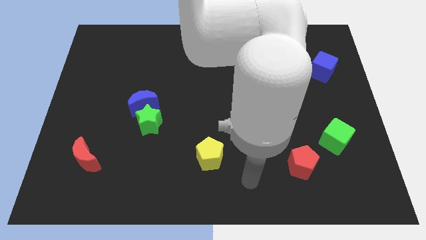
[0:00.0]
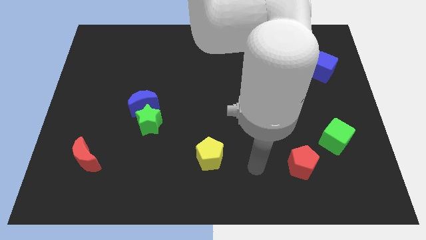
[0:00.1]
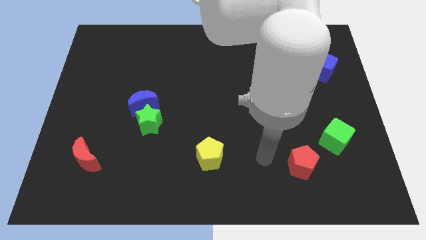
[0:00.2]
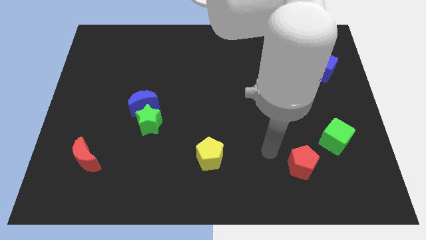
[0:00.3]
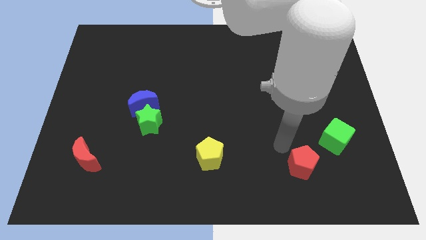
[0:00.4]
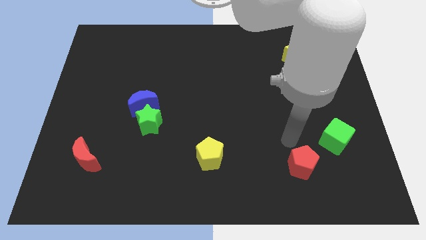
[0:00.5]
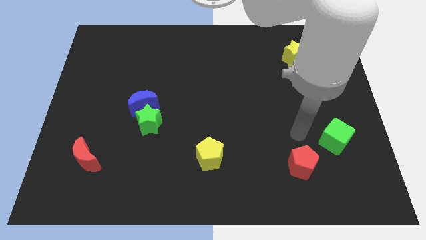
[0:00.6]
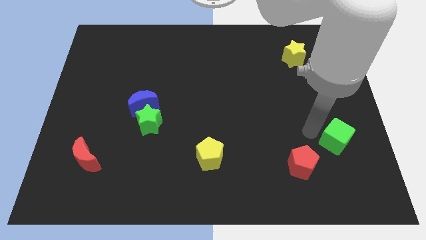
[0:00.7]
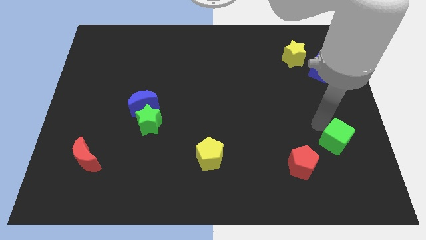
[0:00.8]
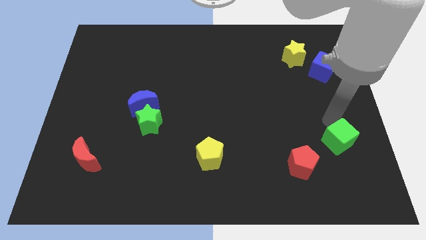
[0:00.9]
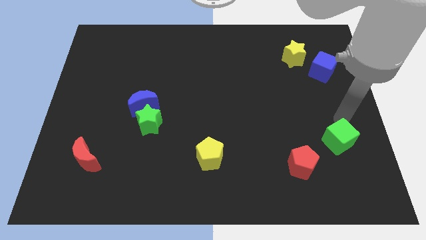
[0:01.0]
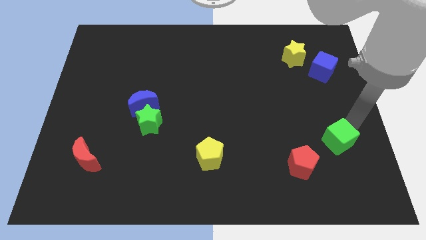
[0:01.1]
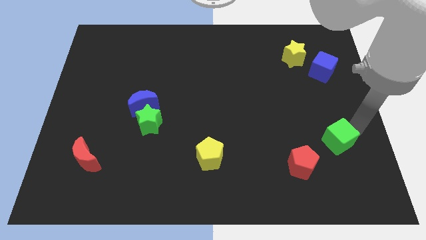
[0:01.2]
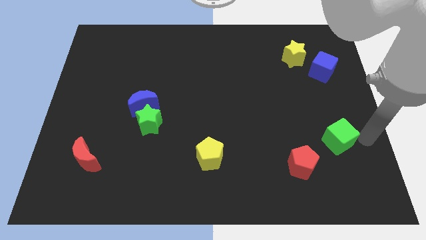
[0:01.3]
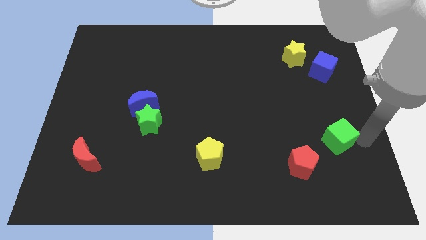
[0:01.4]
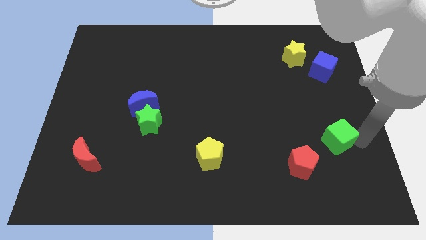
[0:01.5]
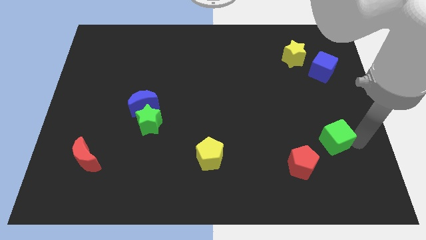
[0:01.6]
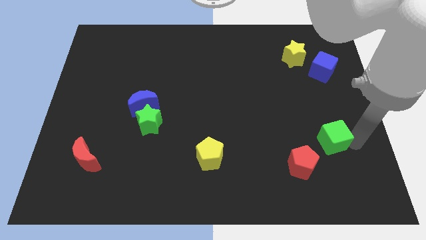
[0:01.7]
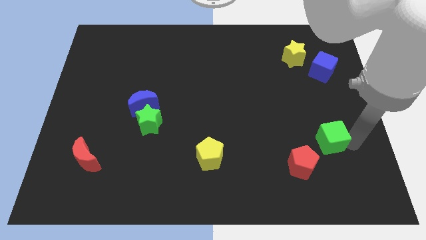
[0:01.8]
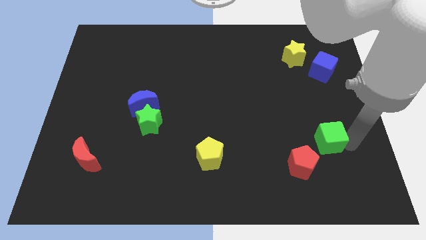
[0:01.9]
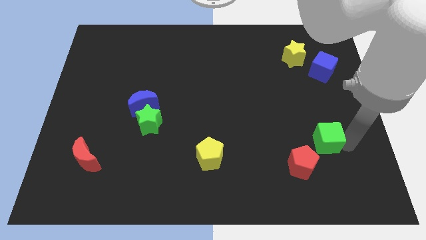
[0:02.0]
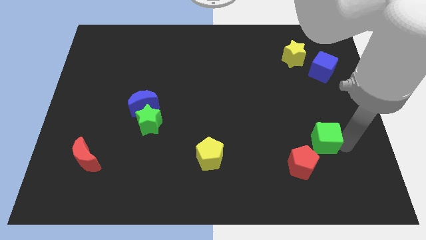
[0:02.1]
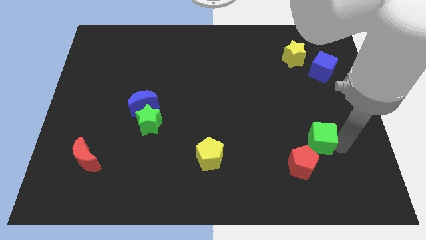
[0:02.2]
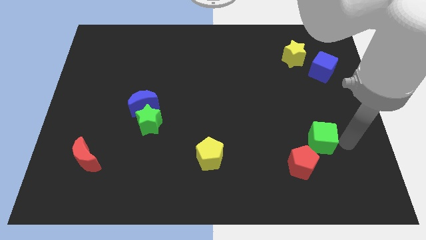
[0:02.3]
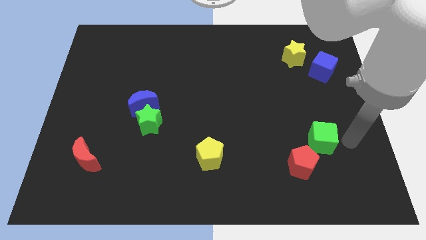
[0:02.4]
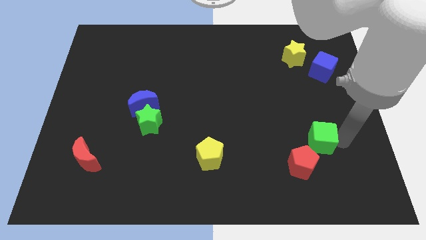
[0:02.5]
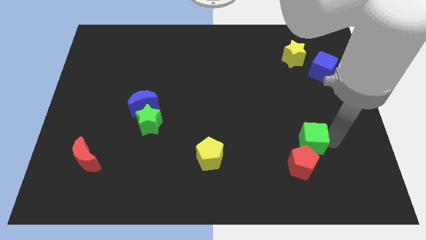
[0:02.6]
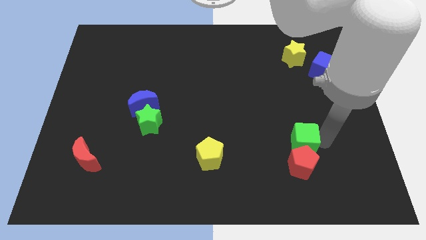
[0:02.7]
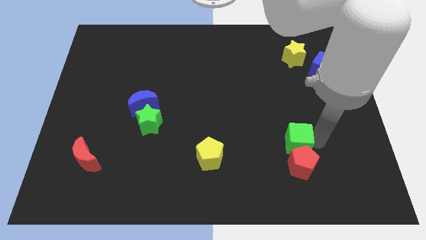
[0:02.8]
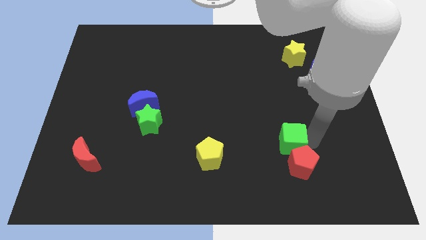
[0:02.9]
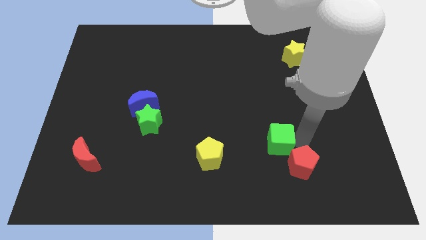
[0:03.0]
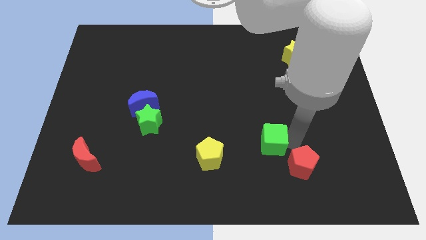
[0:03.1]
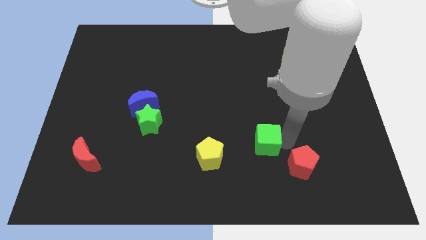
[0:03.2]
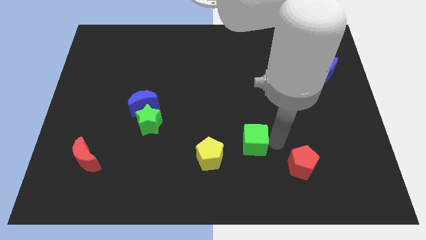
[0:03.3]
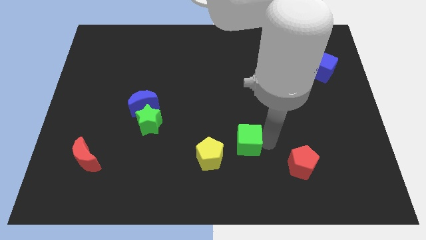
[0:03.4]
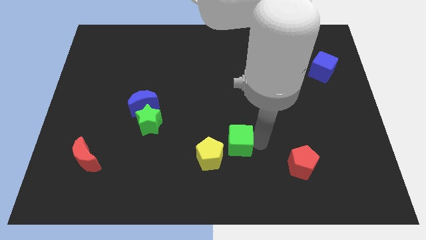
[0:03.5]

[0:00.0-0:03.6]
push the green cube to the left

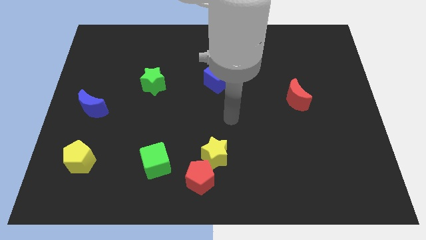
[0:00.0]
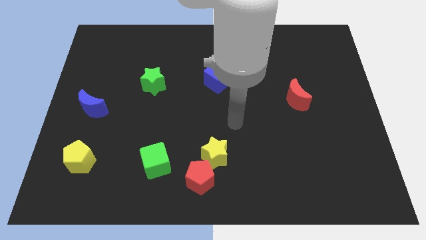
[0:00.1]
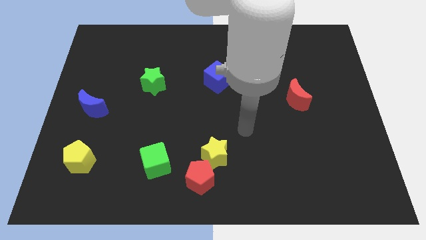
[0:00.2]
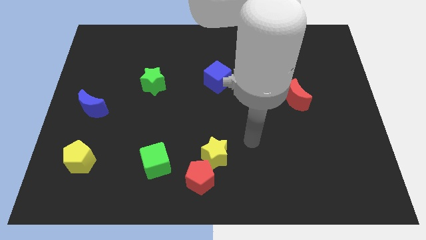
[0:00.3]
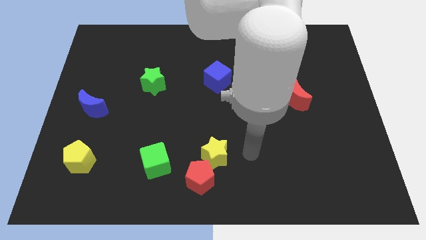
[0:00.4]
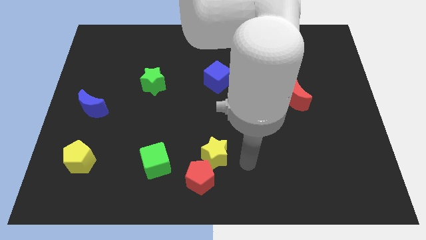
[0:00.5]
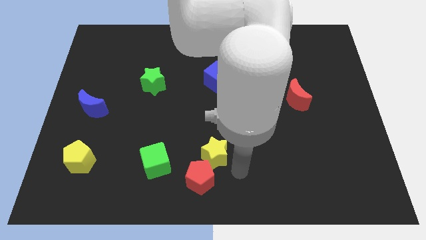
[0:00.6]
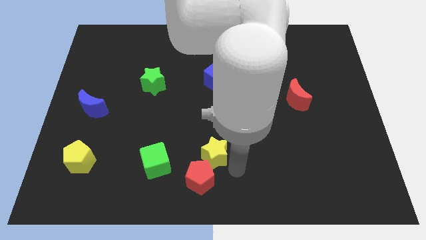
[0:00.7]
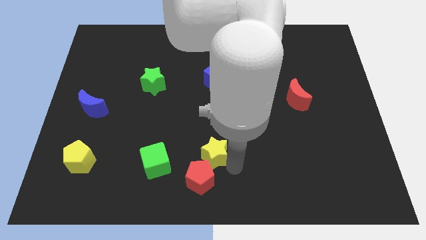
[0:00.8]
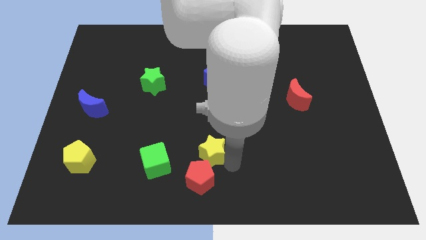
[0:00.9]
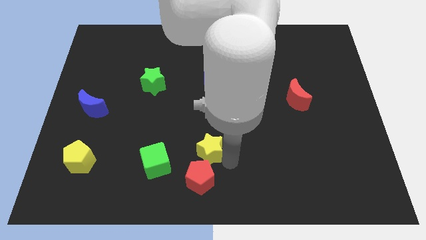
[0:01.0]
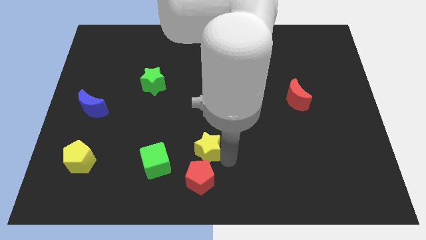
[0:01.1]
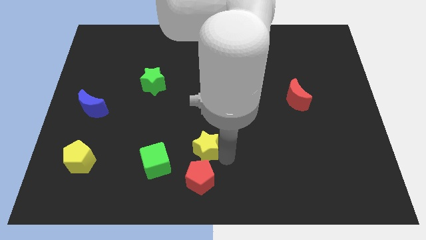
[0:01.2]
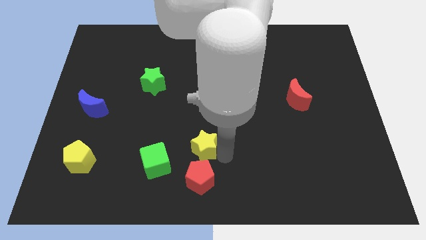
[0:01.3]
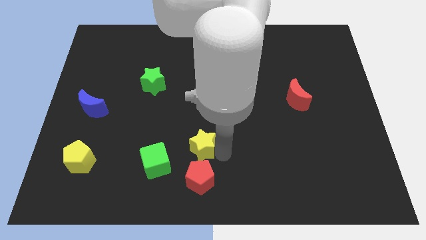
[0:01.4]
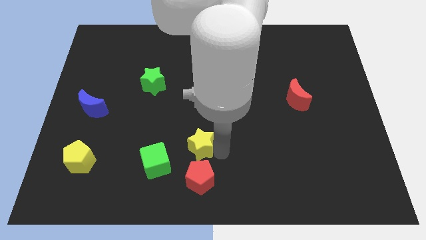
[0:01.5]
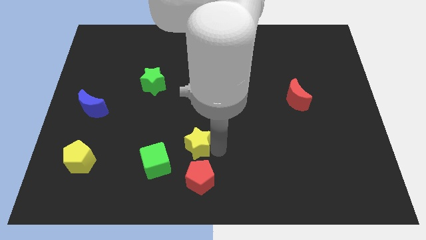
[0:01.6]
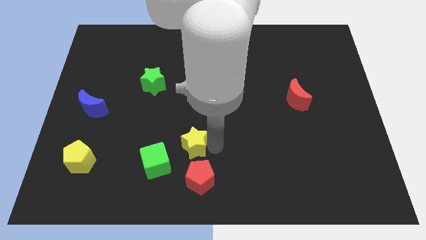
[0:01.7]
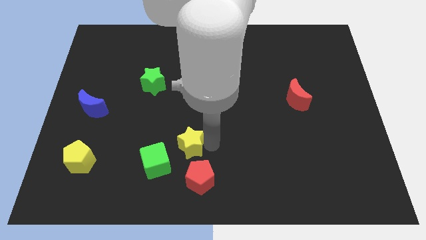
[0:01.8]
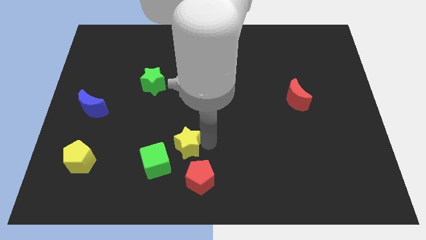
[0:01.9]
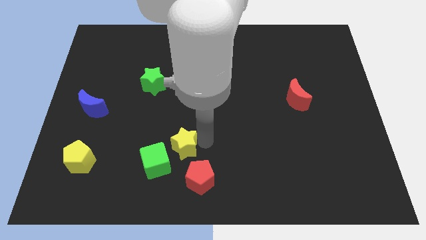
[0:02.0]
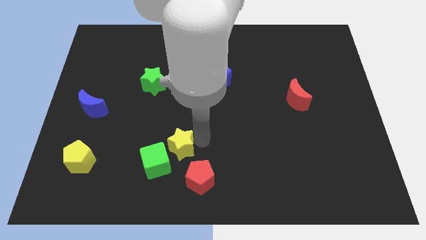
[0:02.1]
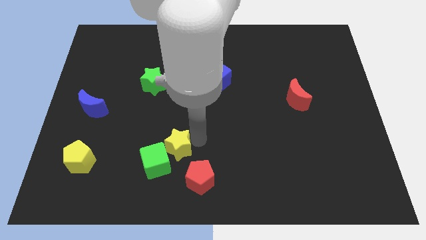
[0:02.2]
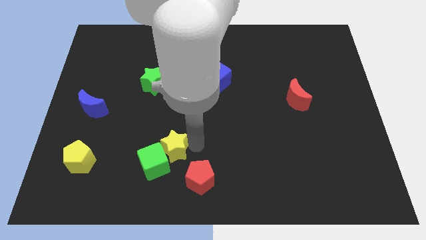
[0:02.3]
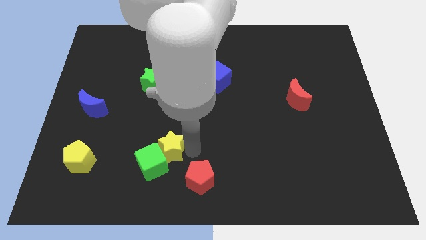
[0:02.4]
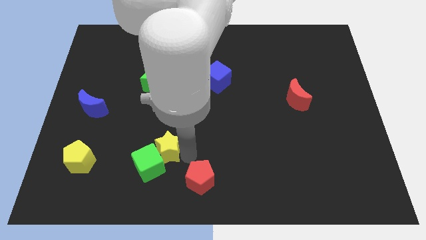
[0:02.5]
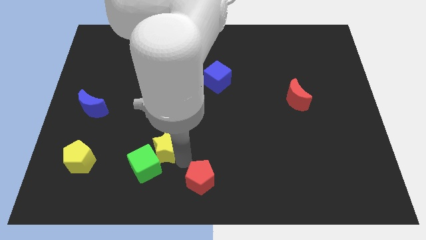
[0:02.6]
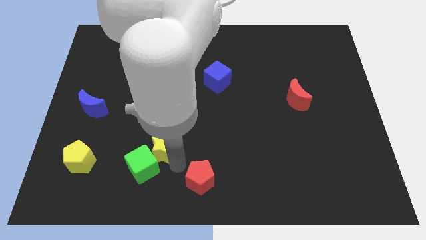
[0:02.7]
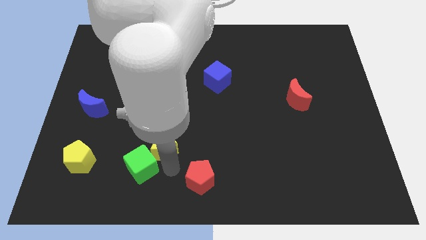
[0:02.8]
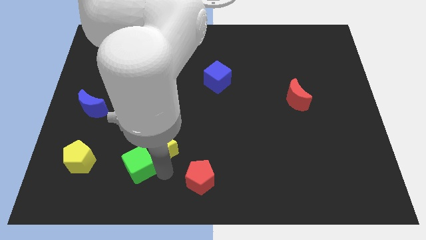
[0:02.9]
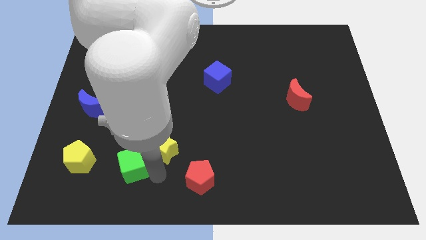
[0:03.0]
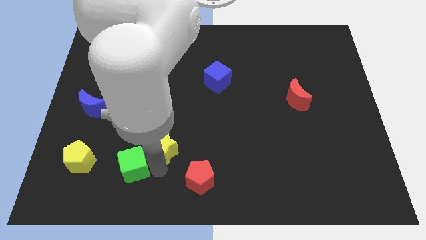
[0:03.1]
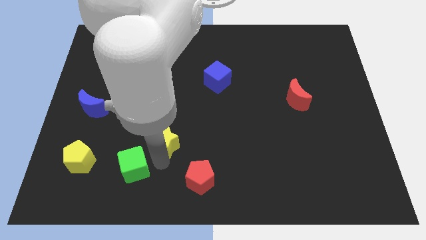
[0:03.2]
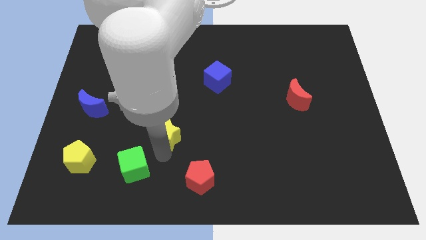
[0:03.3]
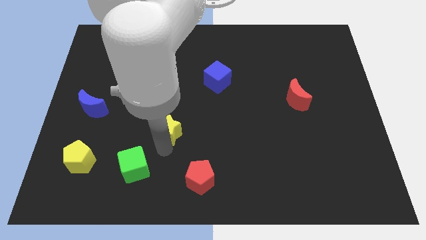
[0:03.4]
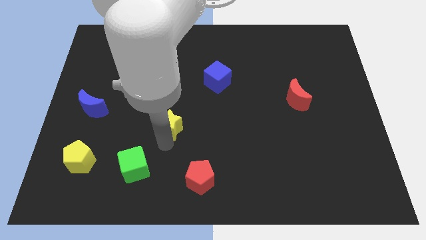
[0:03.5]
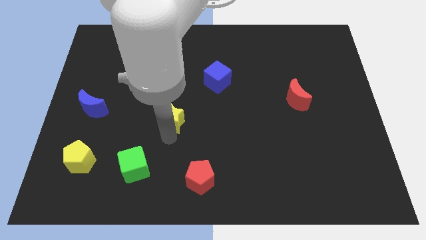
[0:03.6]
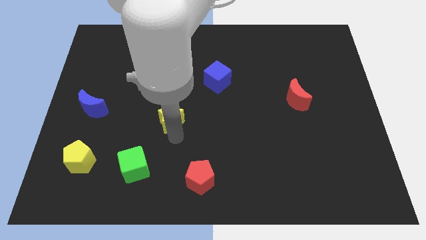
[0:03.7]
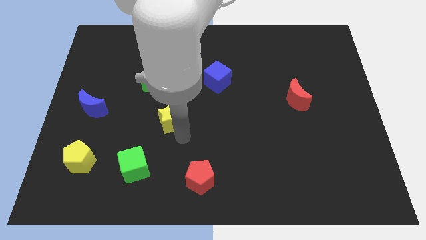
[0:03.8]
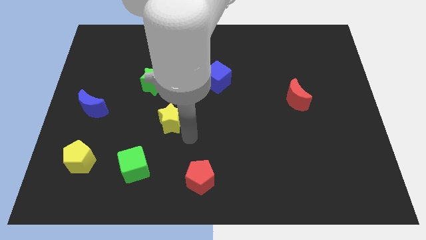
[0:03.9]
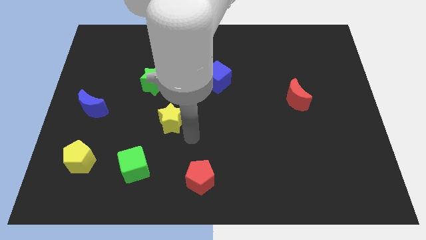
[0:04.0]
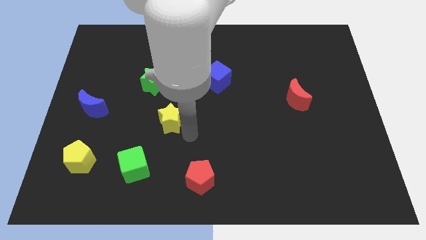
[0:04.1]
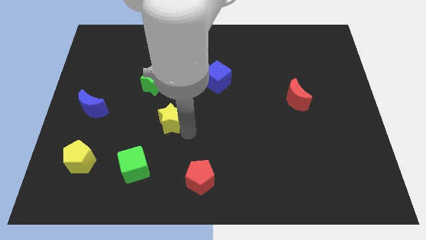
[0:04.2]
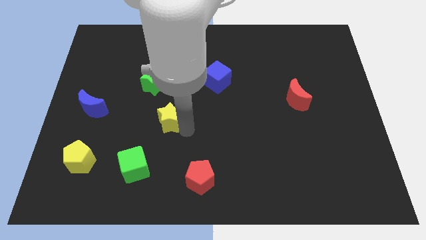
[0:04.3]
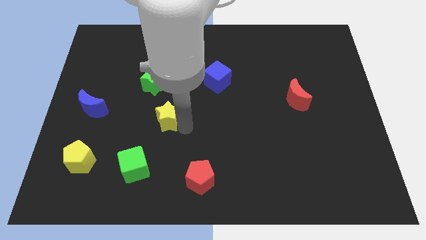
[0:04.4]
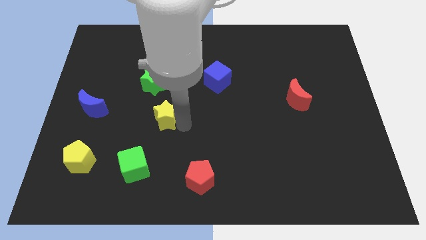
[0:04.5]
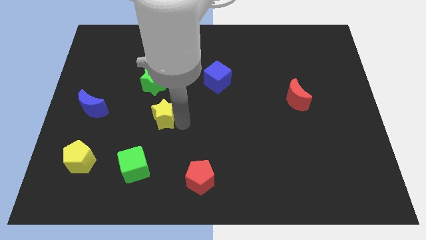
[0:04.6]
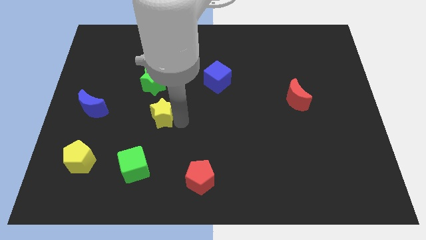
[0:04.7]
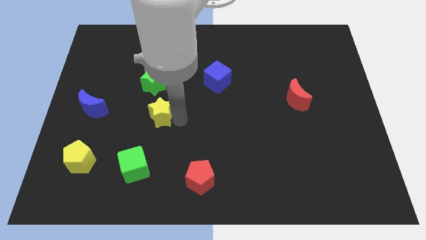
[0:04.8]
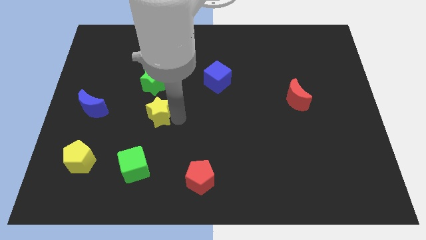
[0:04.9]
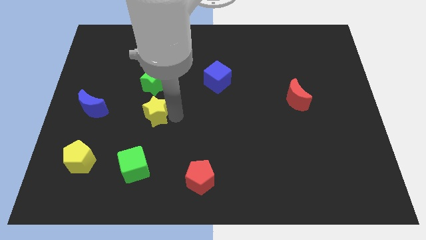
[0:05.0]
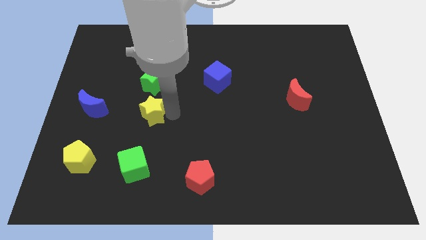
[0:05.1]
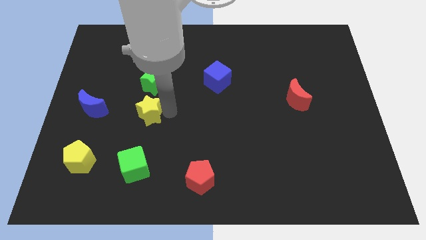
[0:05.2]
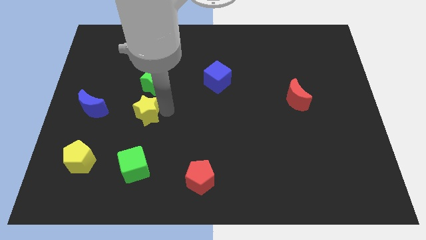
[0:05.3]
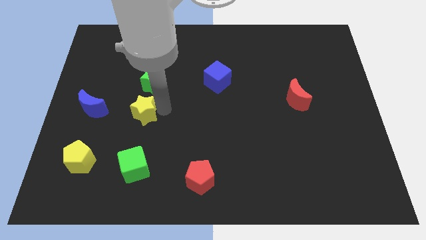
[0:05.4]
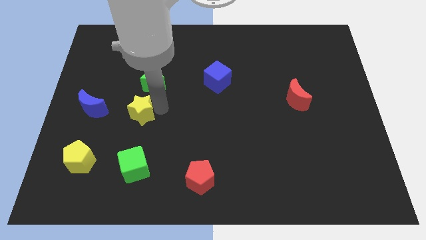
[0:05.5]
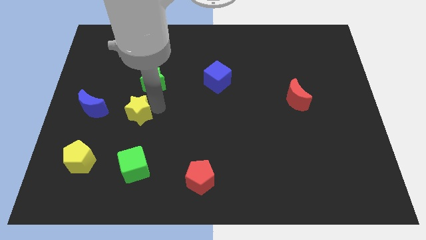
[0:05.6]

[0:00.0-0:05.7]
push the yellow star upwards and to the left diagonally
